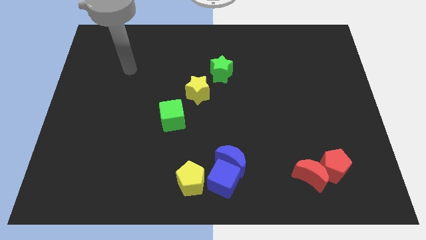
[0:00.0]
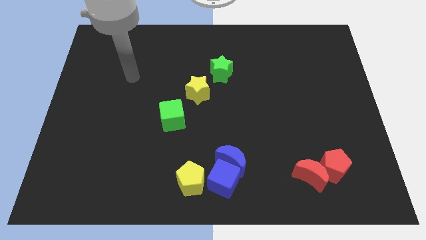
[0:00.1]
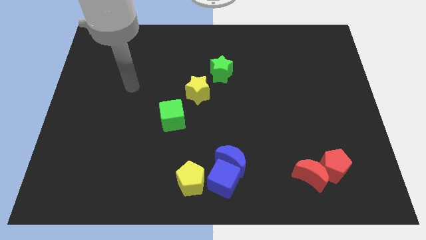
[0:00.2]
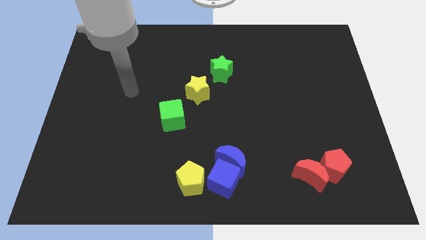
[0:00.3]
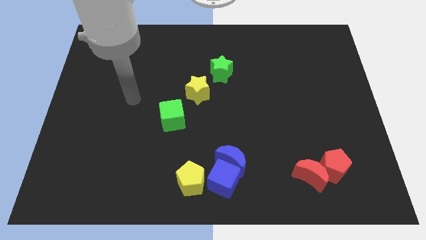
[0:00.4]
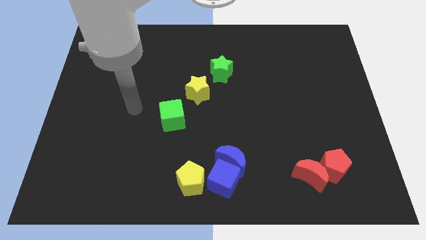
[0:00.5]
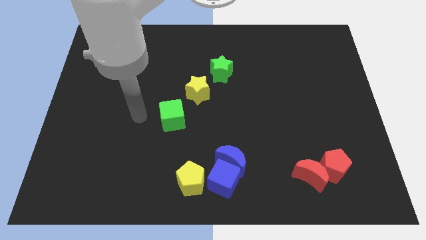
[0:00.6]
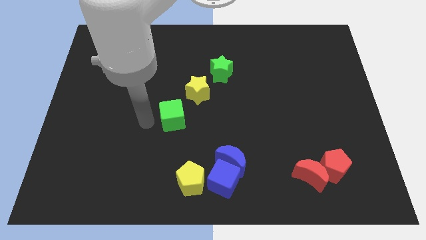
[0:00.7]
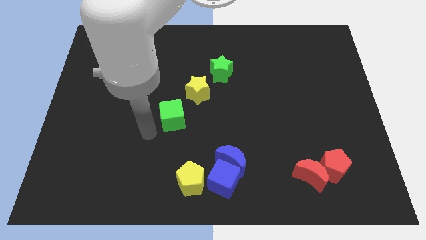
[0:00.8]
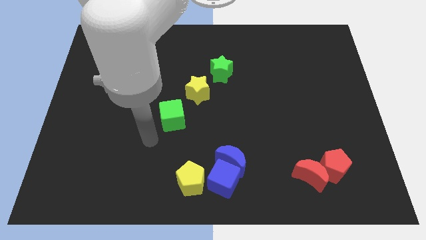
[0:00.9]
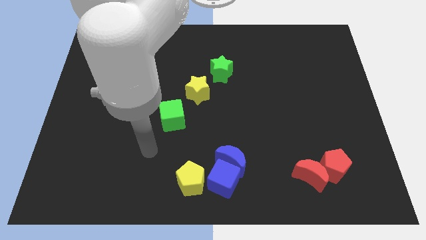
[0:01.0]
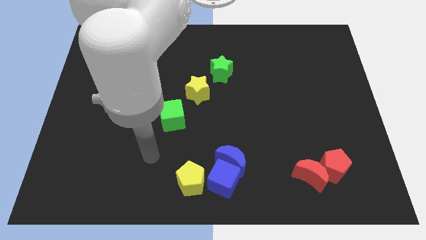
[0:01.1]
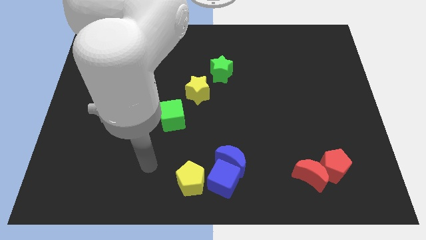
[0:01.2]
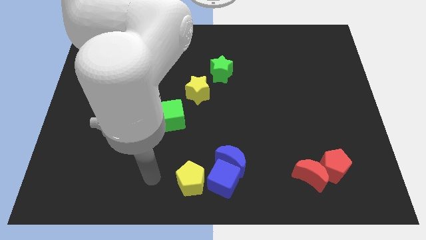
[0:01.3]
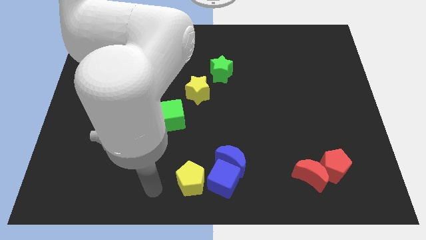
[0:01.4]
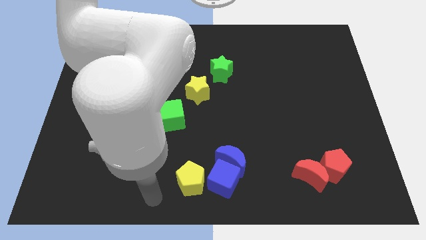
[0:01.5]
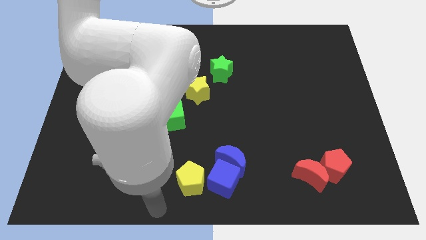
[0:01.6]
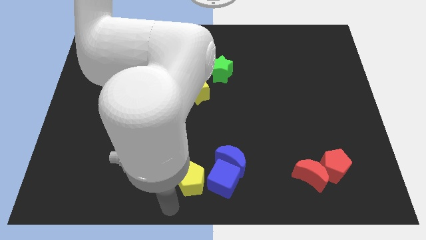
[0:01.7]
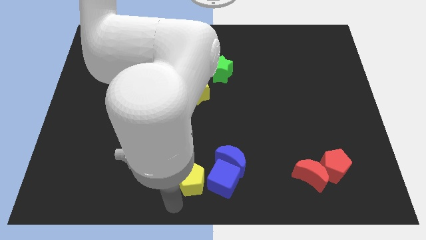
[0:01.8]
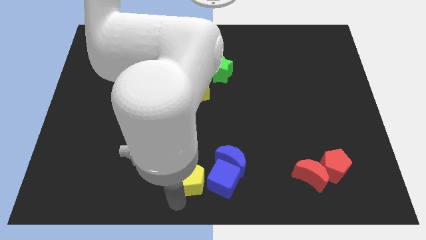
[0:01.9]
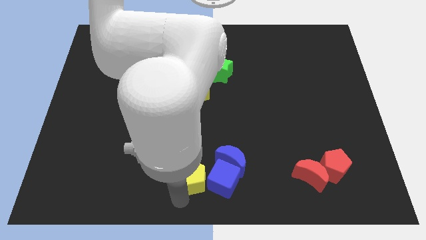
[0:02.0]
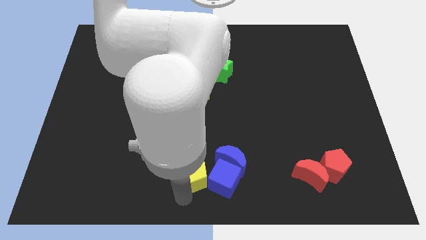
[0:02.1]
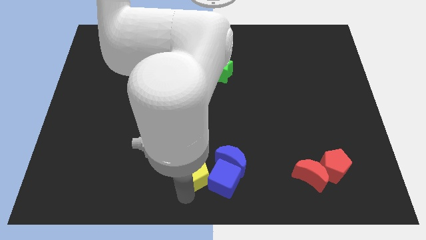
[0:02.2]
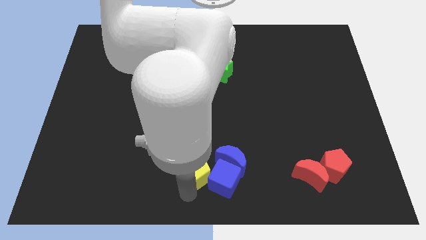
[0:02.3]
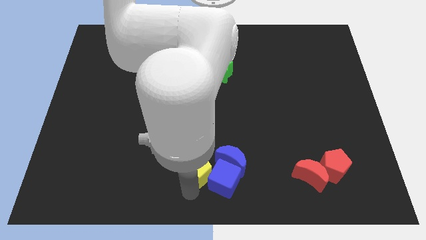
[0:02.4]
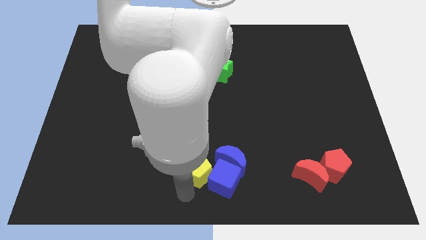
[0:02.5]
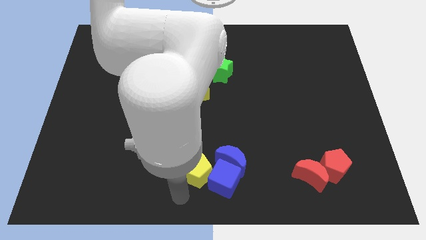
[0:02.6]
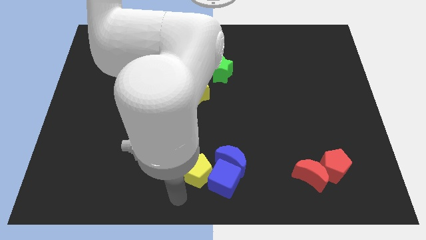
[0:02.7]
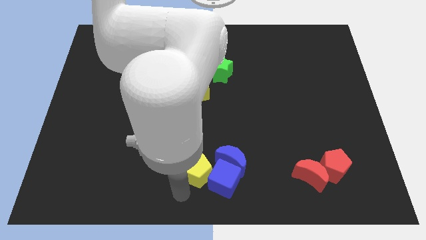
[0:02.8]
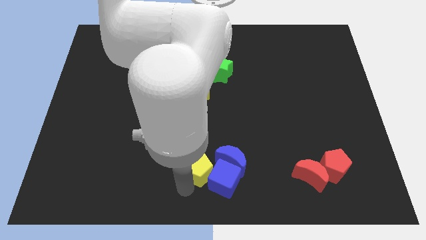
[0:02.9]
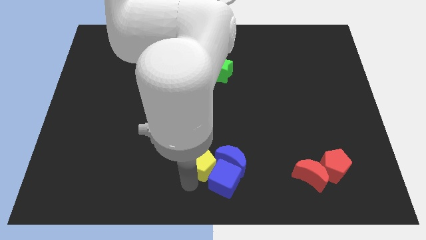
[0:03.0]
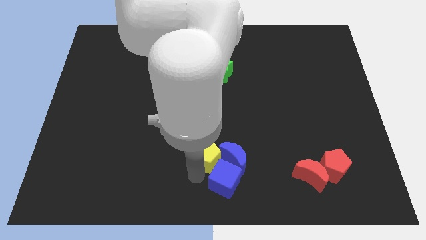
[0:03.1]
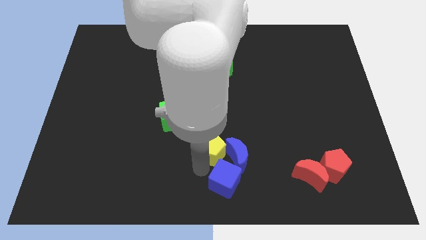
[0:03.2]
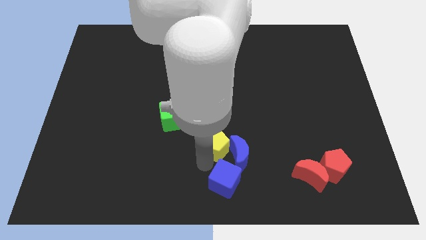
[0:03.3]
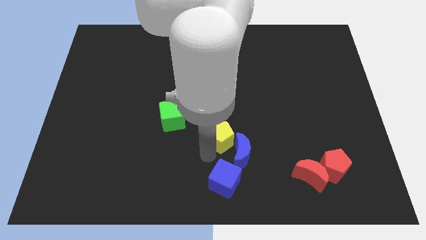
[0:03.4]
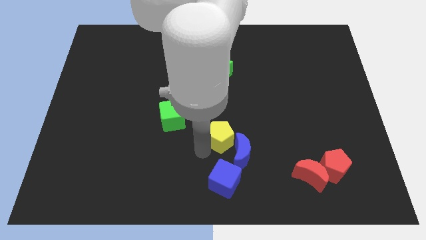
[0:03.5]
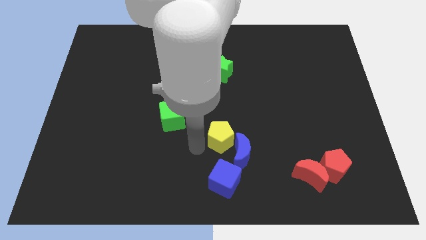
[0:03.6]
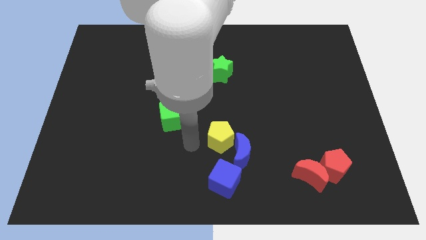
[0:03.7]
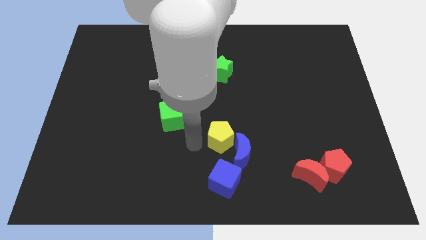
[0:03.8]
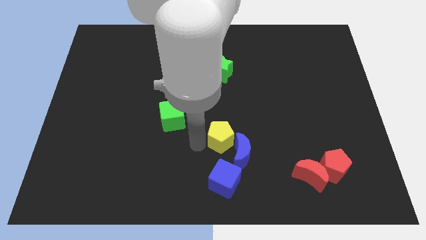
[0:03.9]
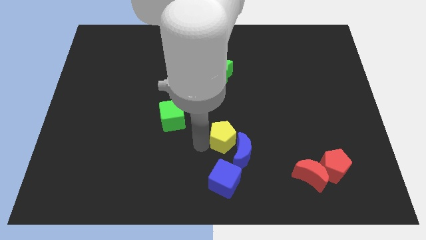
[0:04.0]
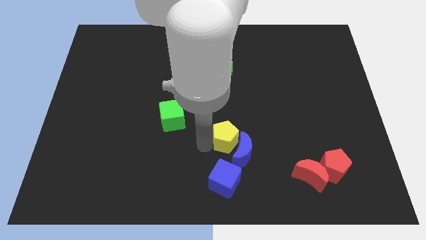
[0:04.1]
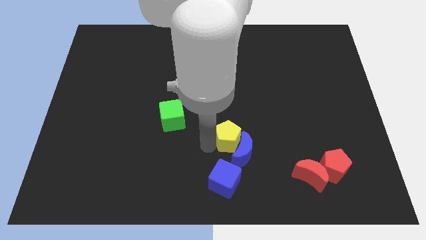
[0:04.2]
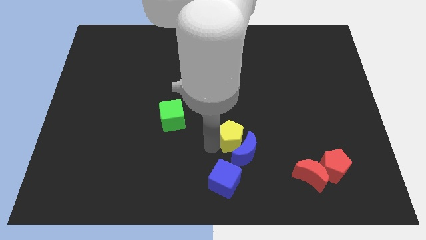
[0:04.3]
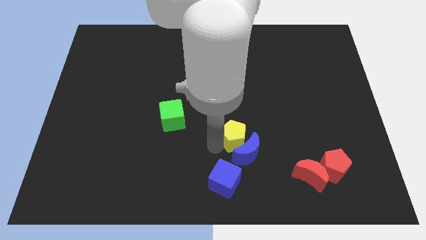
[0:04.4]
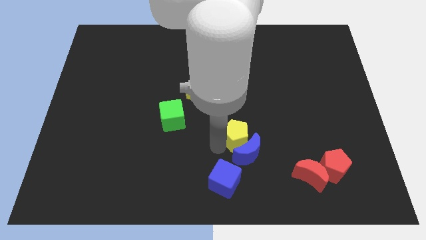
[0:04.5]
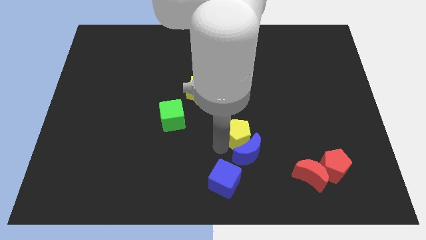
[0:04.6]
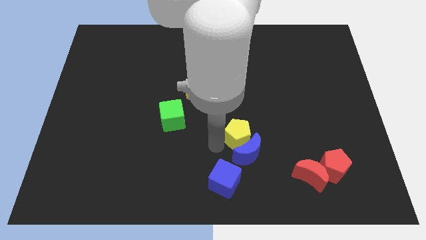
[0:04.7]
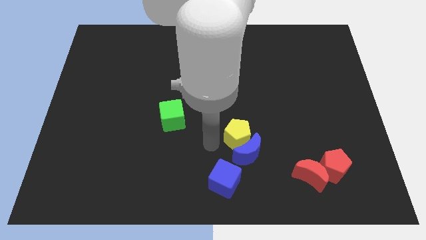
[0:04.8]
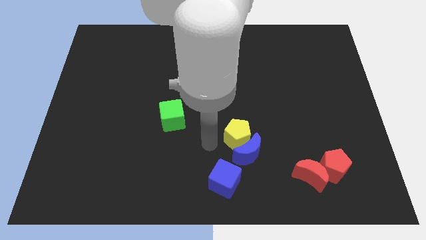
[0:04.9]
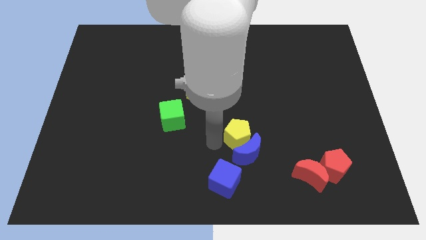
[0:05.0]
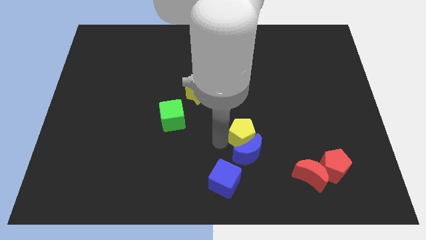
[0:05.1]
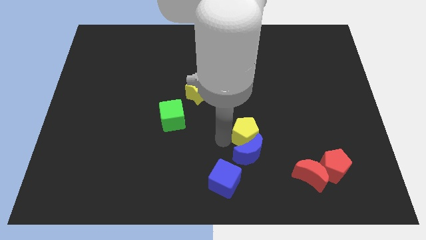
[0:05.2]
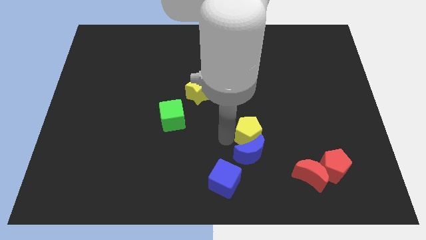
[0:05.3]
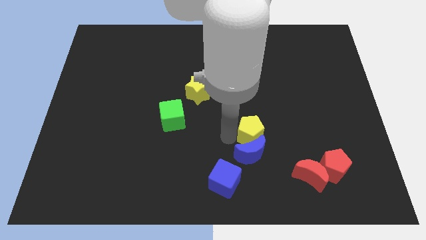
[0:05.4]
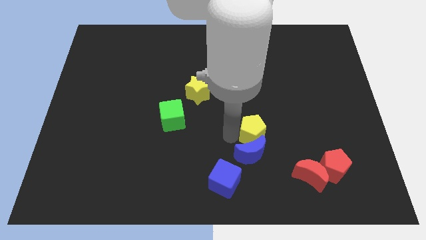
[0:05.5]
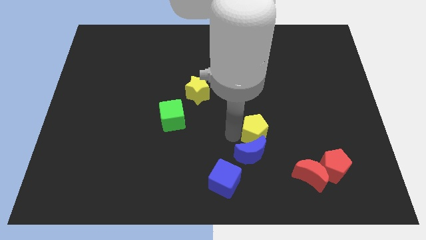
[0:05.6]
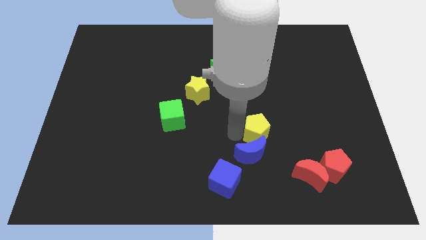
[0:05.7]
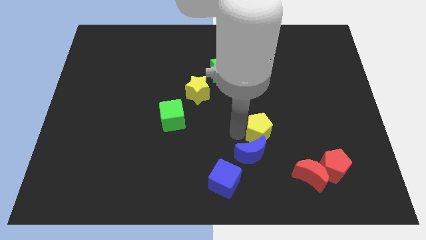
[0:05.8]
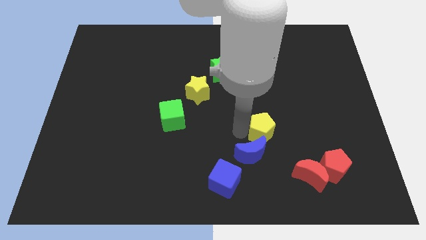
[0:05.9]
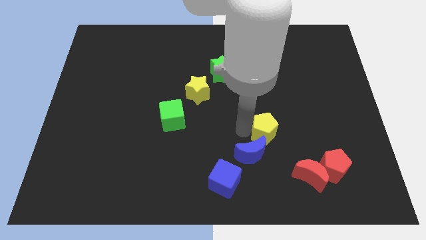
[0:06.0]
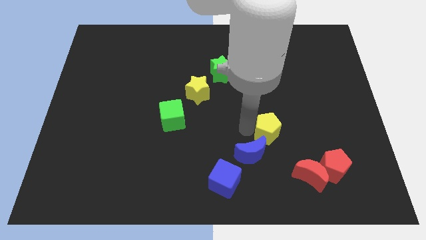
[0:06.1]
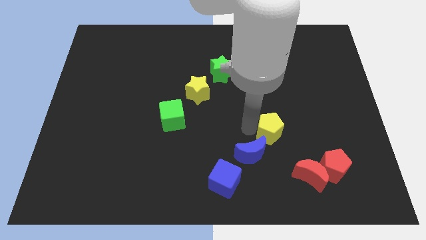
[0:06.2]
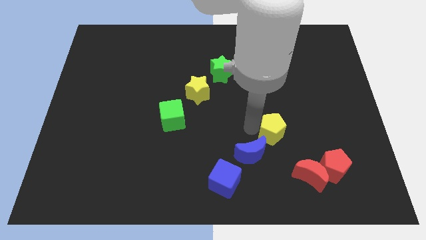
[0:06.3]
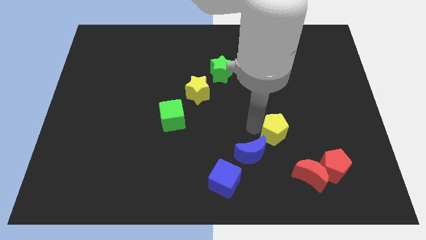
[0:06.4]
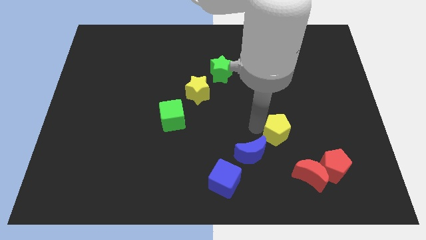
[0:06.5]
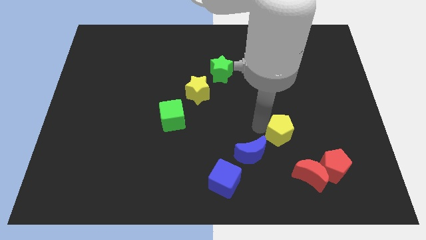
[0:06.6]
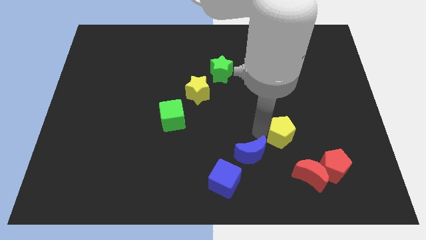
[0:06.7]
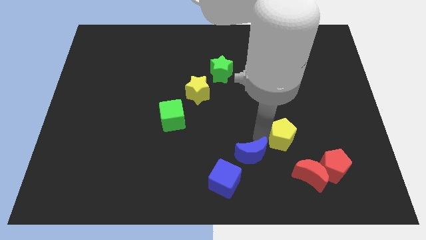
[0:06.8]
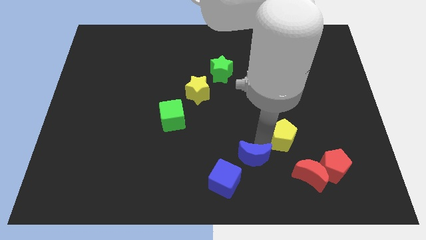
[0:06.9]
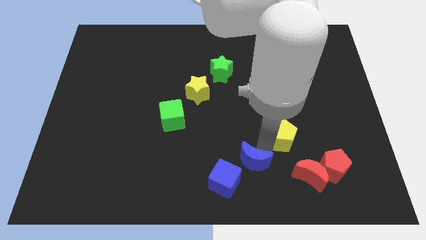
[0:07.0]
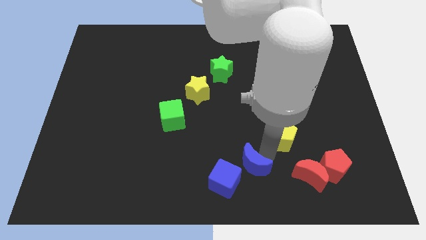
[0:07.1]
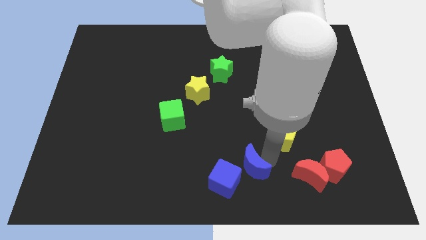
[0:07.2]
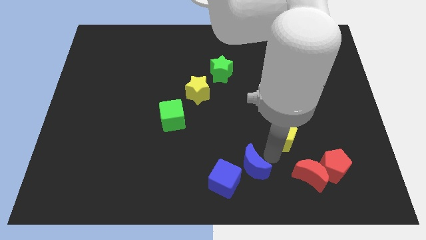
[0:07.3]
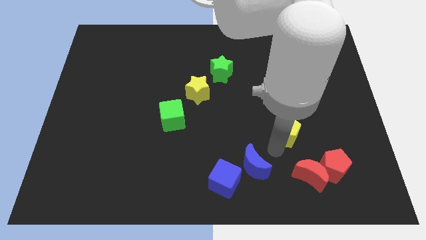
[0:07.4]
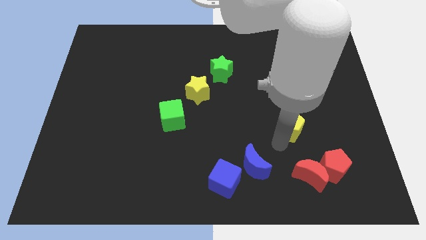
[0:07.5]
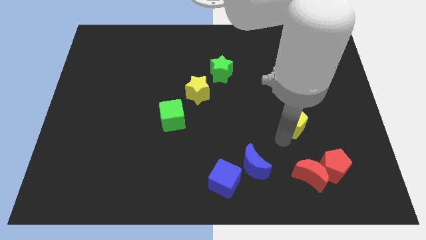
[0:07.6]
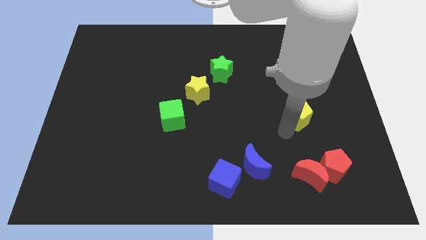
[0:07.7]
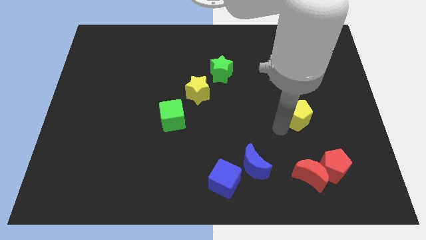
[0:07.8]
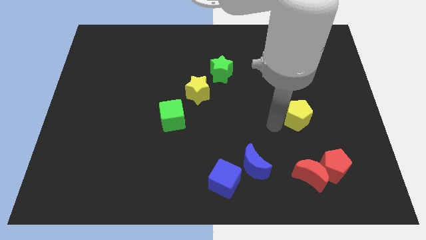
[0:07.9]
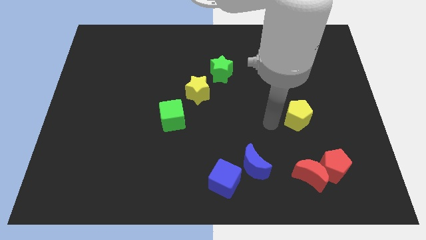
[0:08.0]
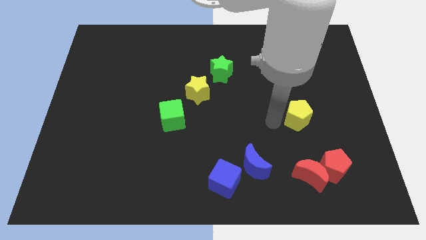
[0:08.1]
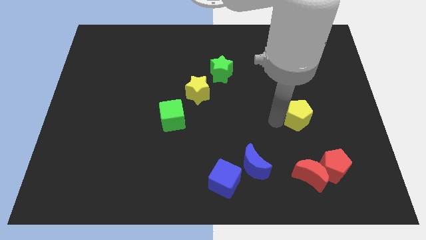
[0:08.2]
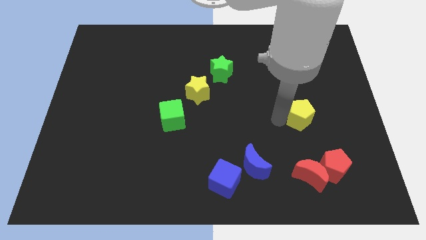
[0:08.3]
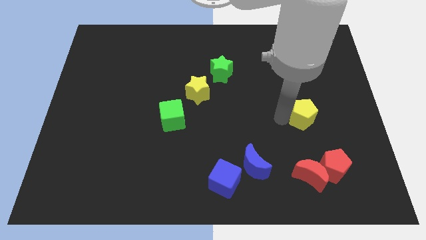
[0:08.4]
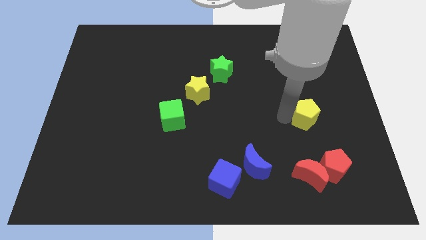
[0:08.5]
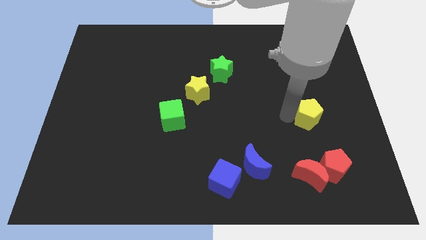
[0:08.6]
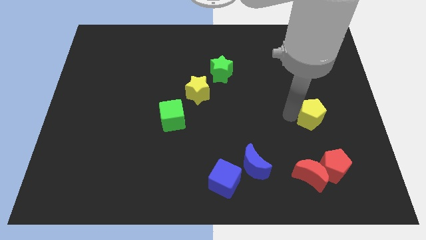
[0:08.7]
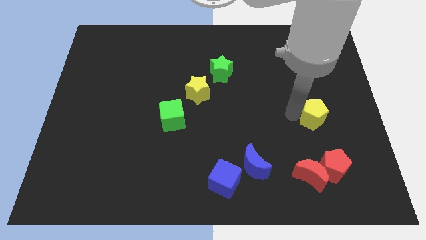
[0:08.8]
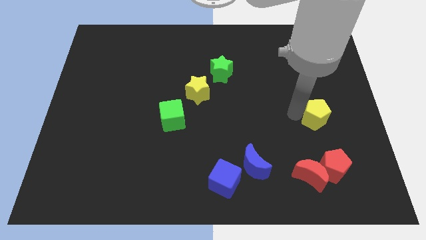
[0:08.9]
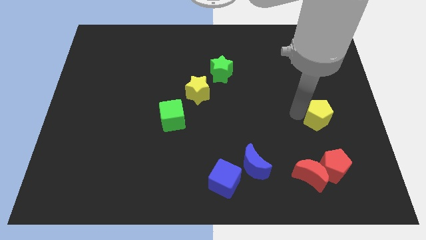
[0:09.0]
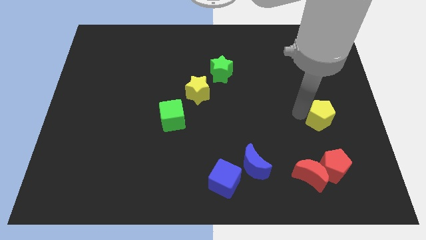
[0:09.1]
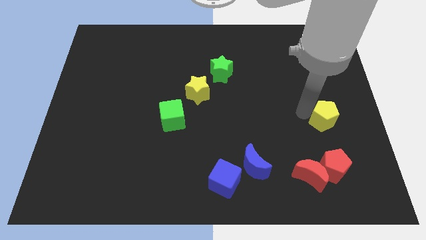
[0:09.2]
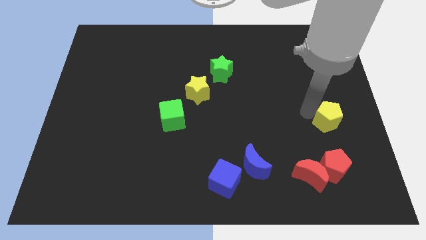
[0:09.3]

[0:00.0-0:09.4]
put the yellow pentagon to the center right
